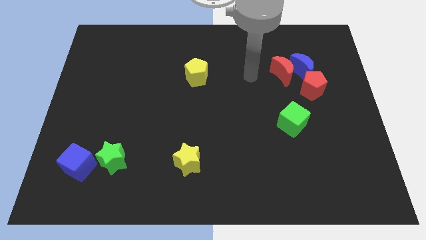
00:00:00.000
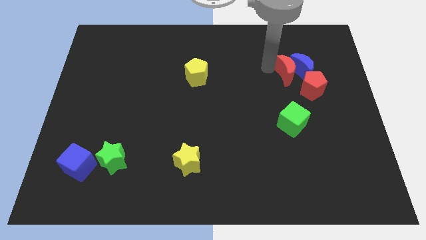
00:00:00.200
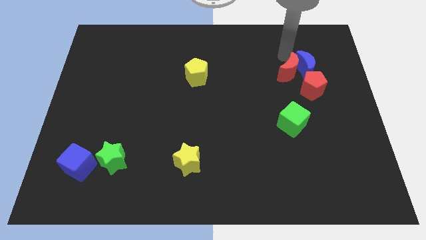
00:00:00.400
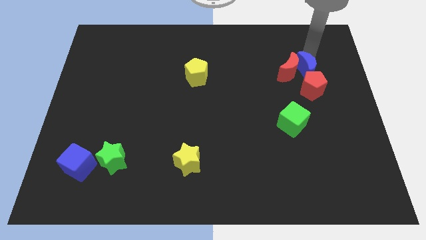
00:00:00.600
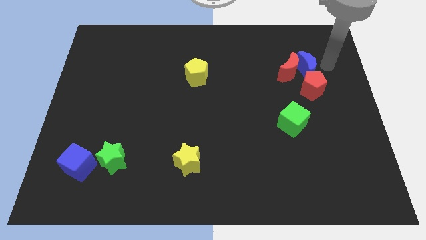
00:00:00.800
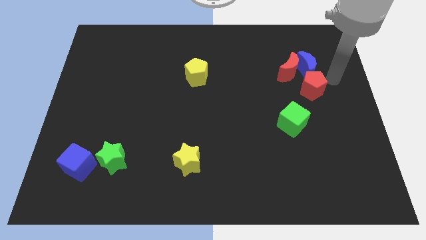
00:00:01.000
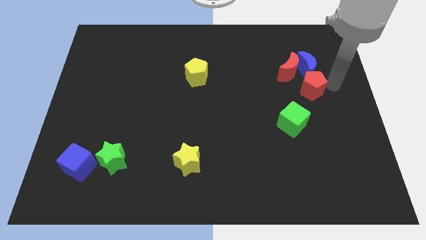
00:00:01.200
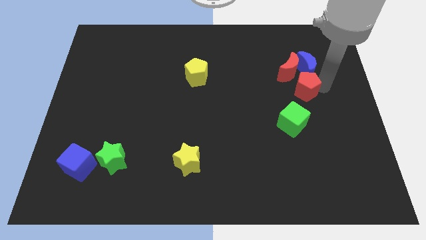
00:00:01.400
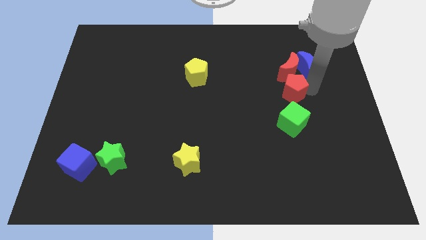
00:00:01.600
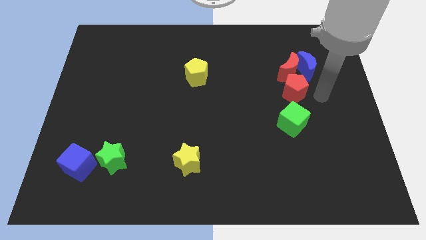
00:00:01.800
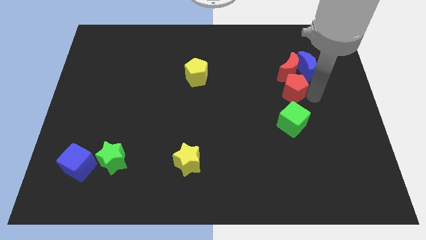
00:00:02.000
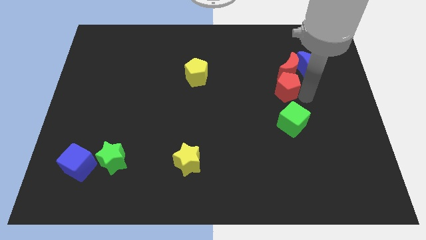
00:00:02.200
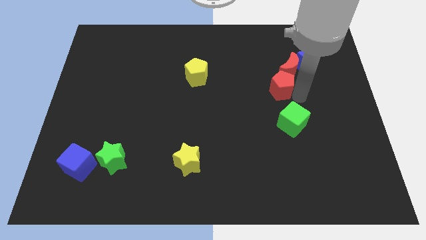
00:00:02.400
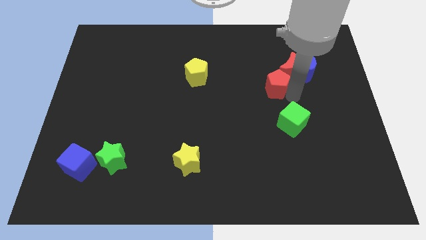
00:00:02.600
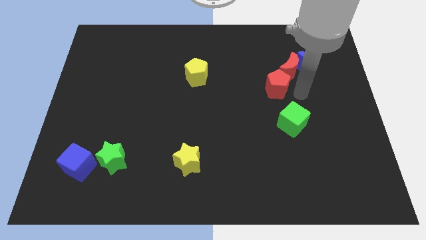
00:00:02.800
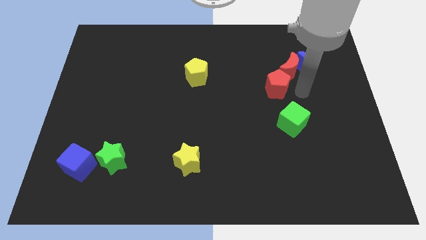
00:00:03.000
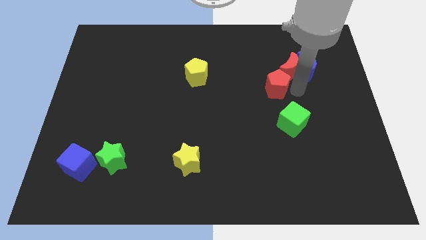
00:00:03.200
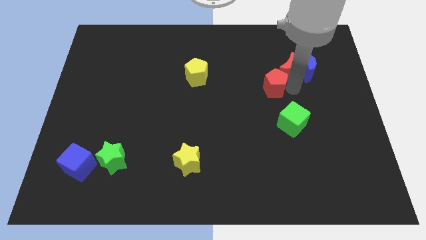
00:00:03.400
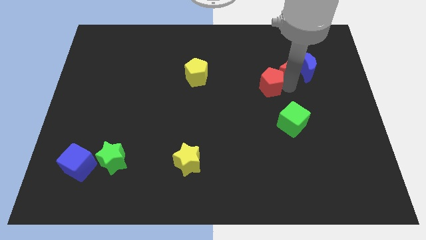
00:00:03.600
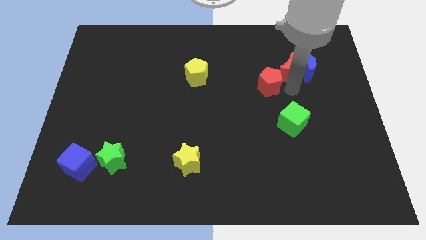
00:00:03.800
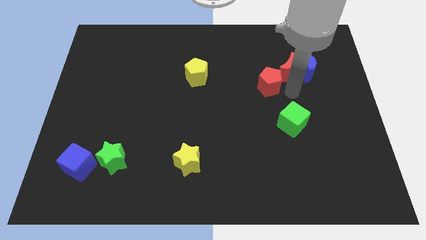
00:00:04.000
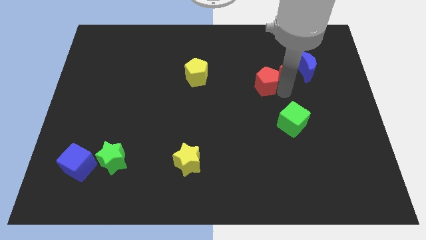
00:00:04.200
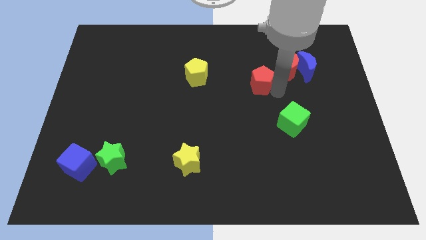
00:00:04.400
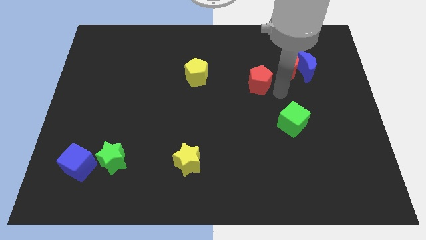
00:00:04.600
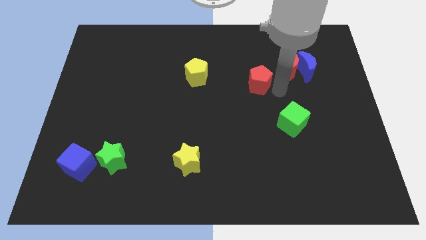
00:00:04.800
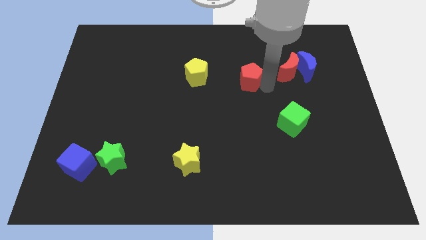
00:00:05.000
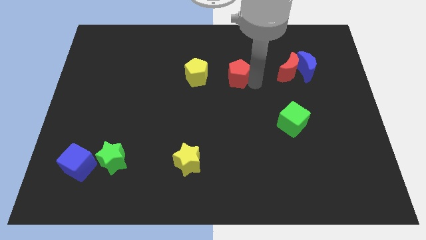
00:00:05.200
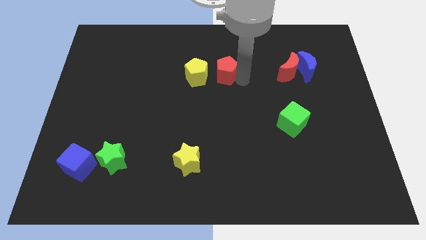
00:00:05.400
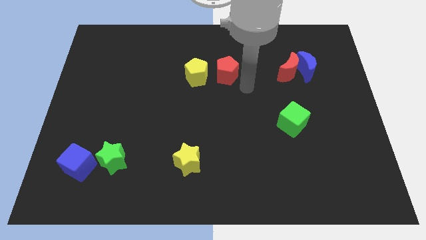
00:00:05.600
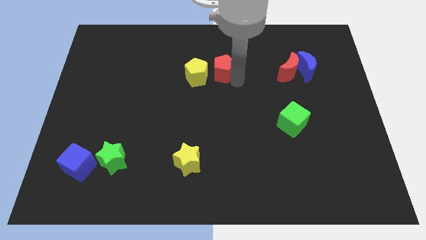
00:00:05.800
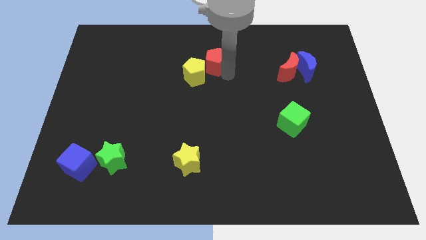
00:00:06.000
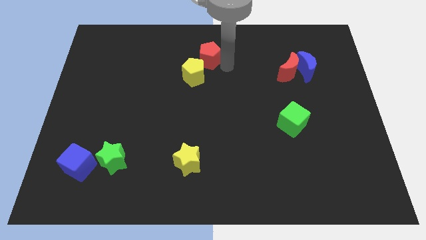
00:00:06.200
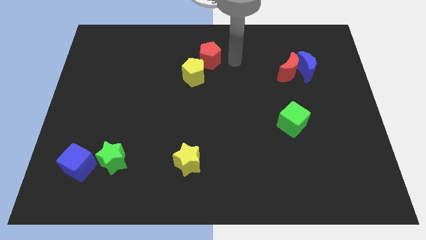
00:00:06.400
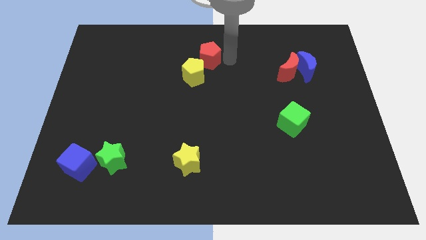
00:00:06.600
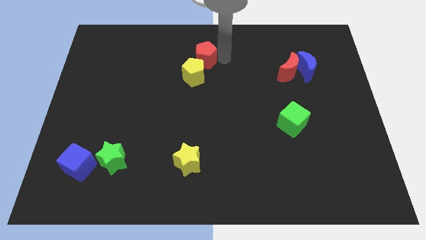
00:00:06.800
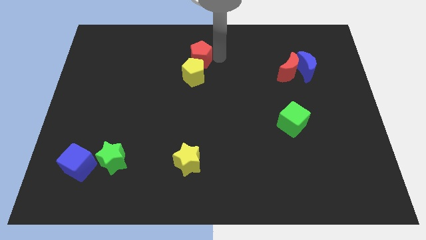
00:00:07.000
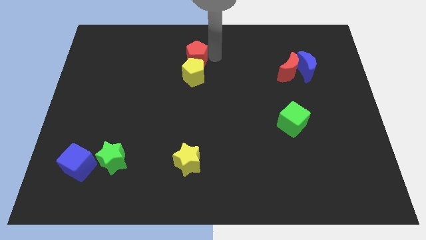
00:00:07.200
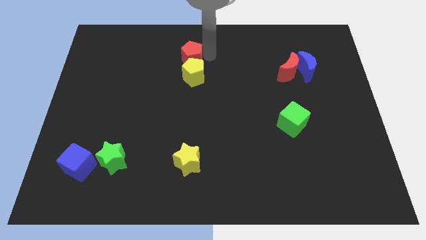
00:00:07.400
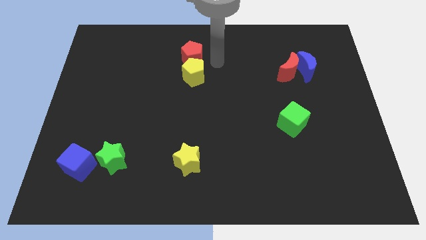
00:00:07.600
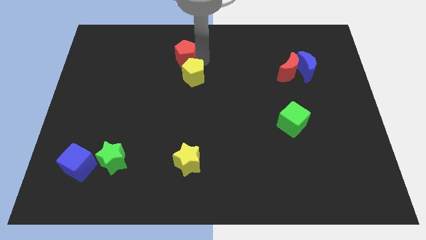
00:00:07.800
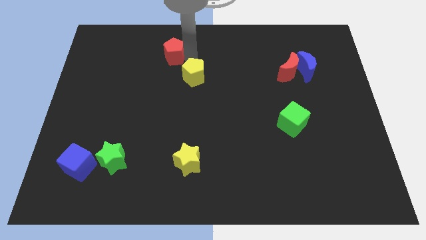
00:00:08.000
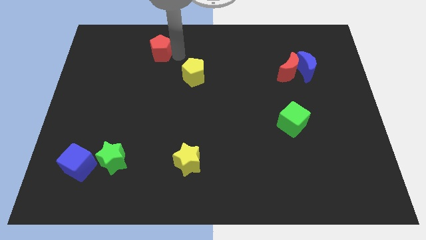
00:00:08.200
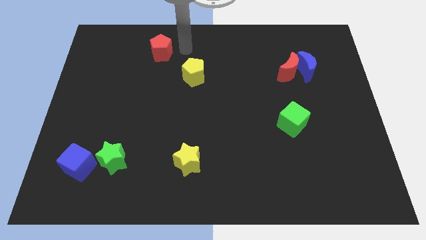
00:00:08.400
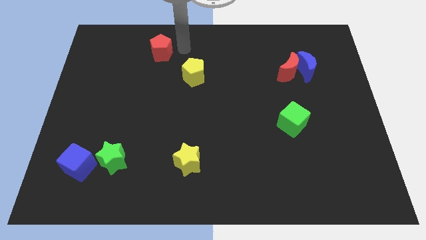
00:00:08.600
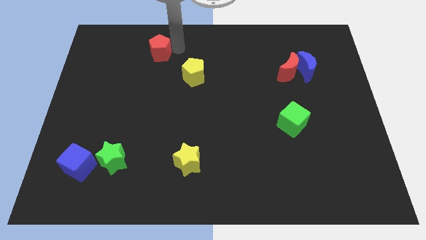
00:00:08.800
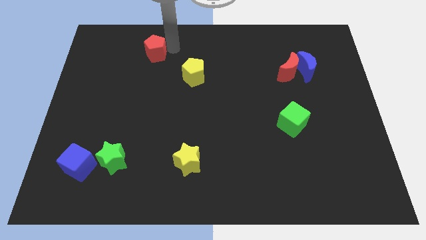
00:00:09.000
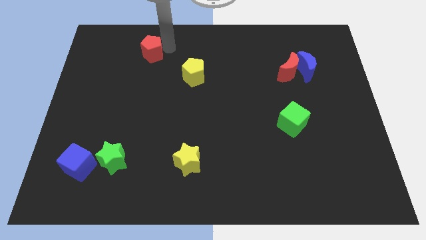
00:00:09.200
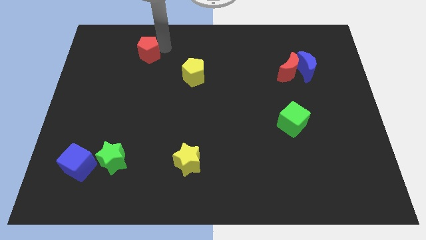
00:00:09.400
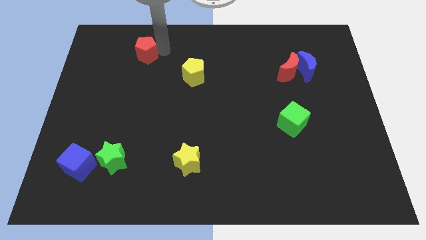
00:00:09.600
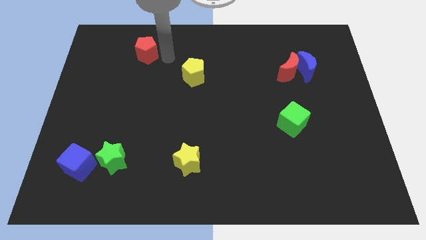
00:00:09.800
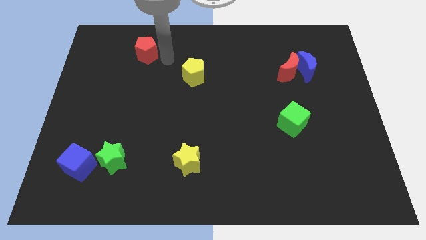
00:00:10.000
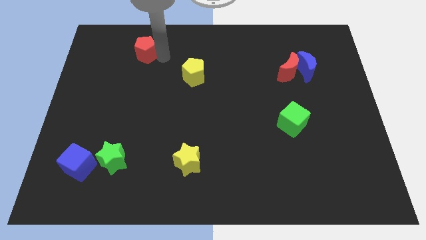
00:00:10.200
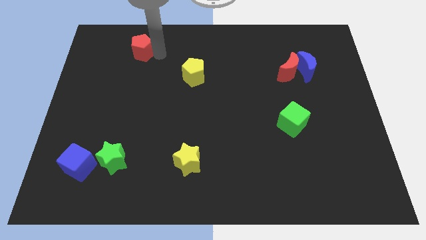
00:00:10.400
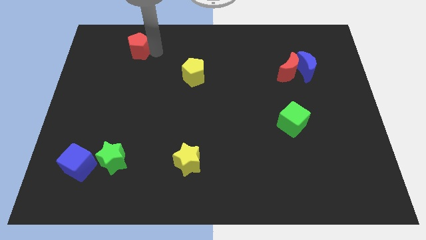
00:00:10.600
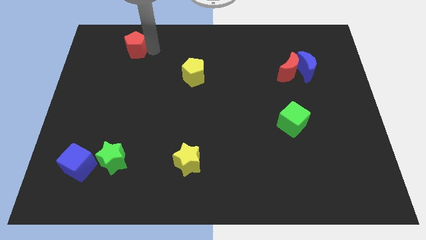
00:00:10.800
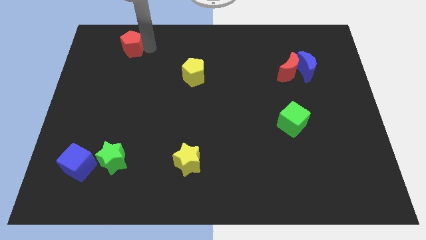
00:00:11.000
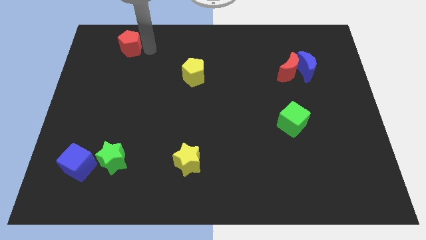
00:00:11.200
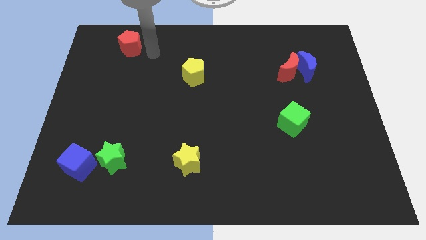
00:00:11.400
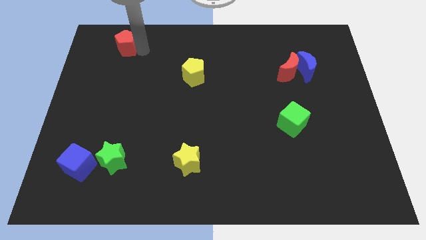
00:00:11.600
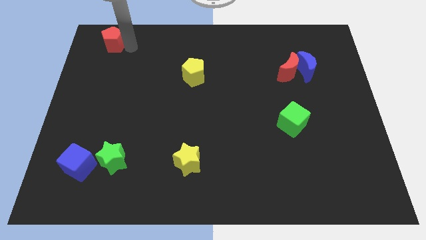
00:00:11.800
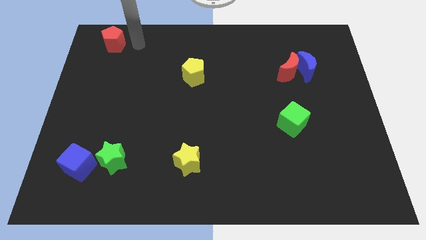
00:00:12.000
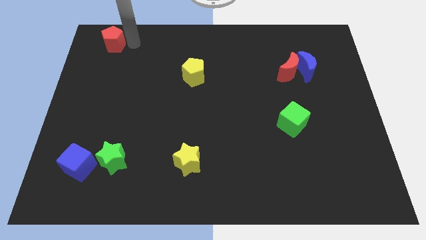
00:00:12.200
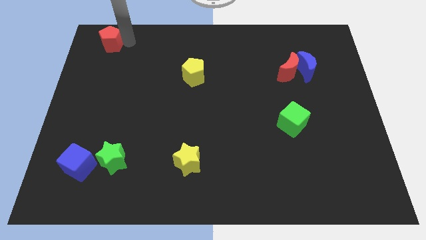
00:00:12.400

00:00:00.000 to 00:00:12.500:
push the red pentagon to the top left of the board

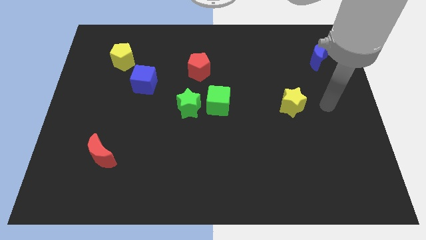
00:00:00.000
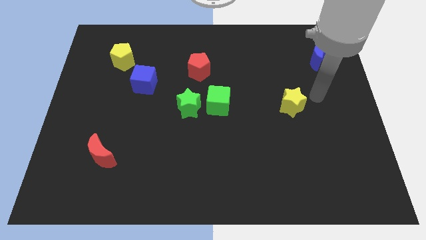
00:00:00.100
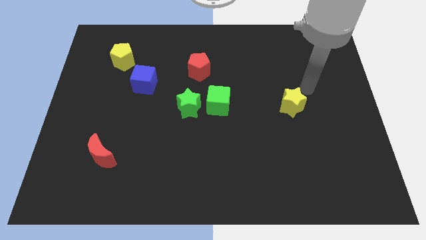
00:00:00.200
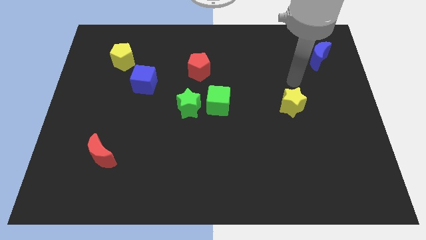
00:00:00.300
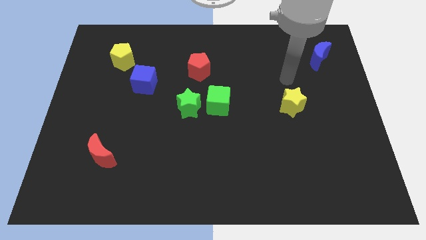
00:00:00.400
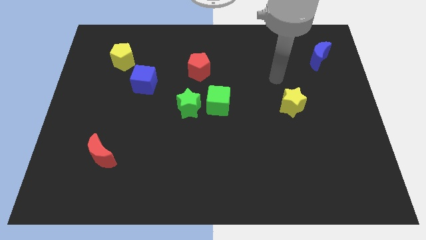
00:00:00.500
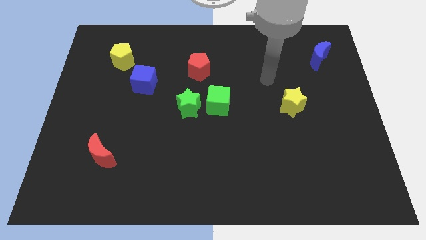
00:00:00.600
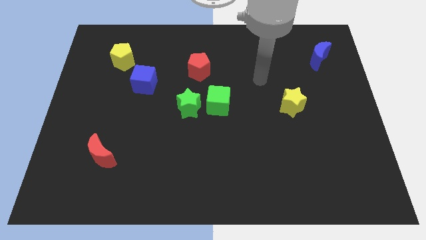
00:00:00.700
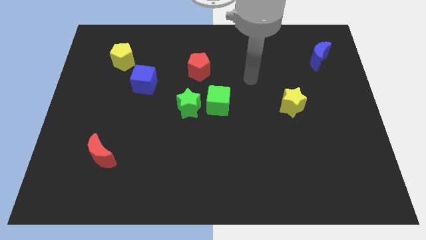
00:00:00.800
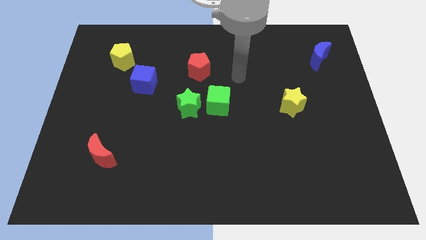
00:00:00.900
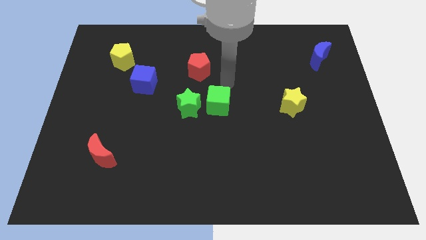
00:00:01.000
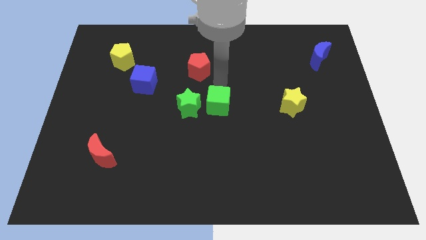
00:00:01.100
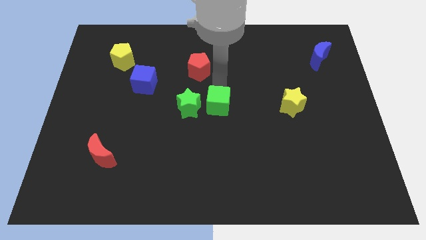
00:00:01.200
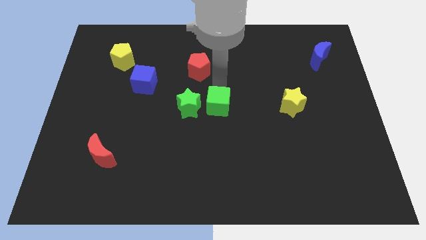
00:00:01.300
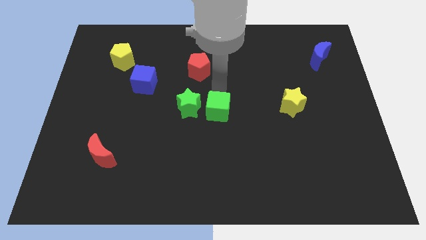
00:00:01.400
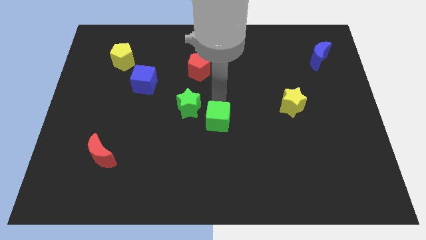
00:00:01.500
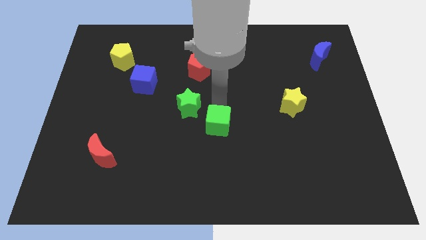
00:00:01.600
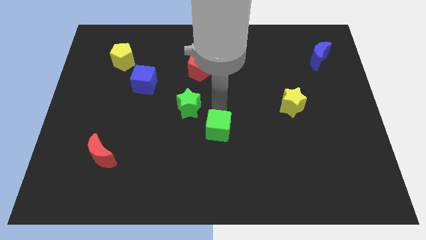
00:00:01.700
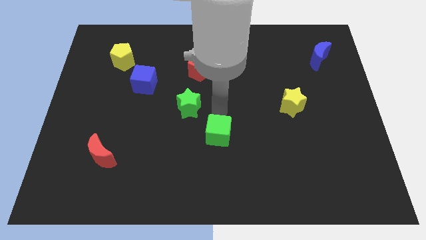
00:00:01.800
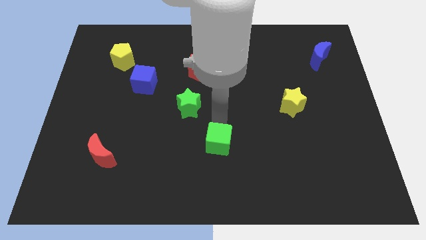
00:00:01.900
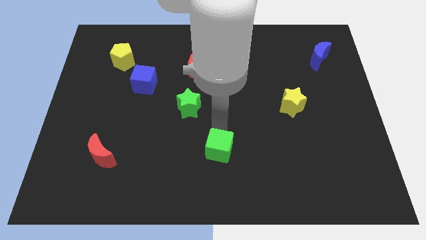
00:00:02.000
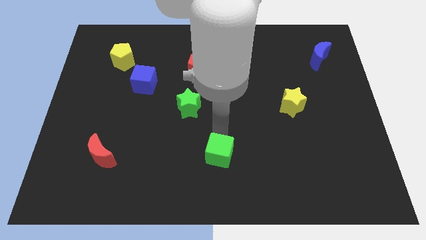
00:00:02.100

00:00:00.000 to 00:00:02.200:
put the green cube to the bottom
